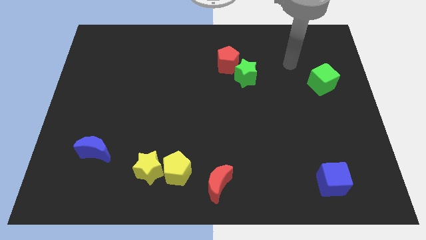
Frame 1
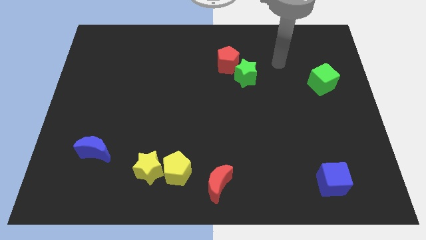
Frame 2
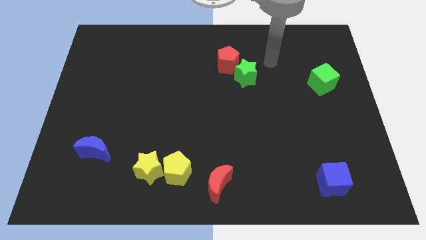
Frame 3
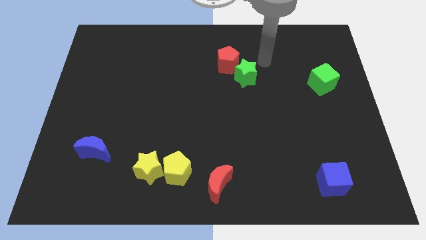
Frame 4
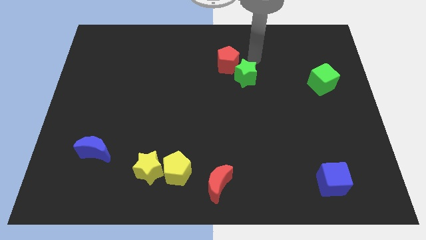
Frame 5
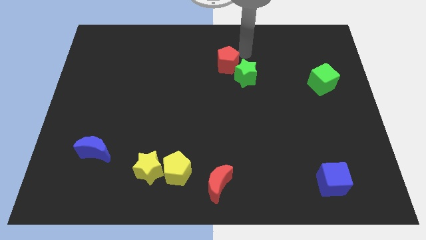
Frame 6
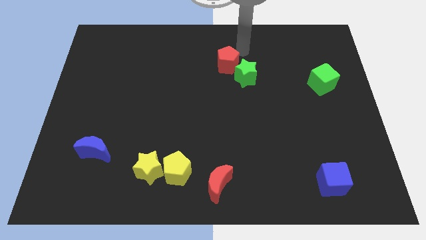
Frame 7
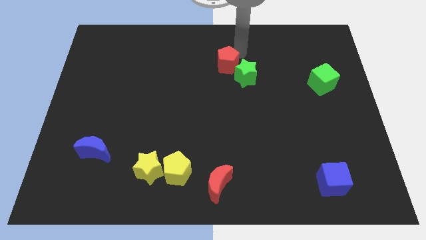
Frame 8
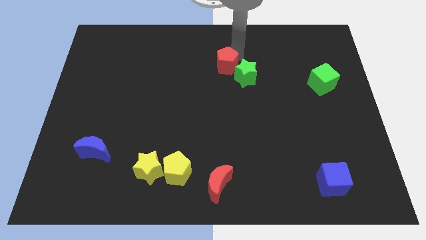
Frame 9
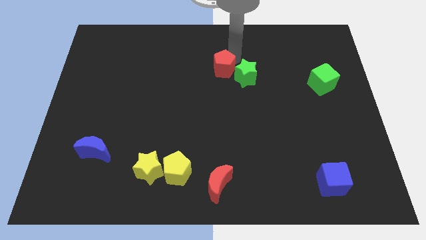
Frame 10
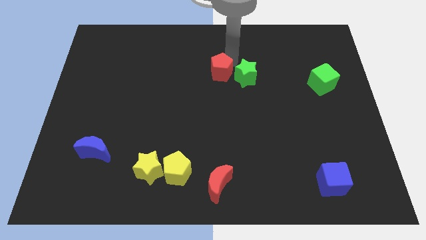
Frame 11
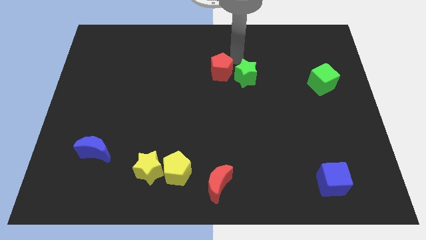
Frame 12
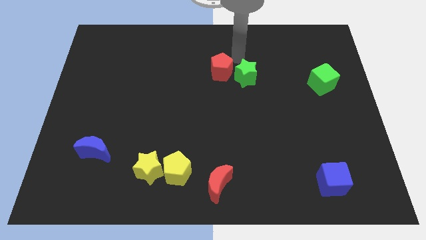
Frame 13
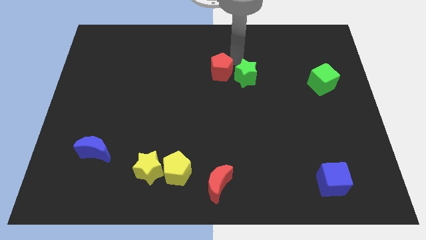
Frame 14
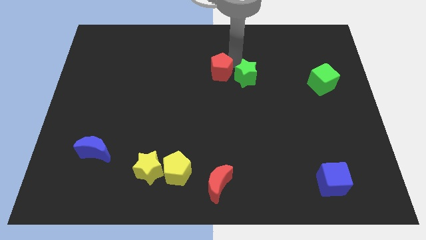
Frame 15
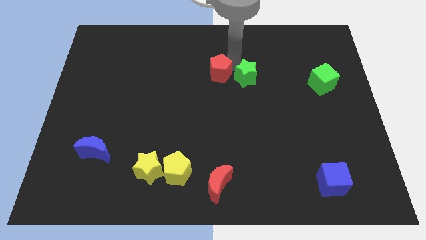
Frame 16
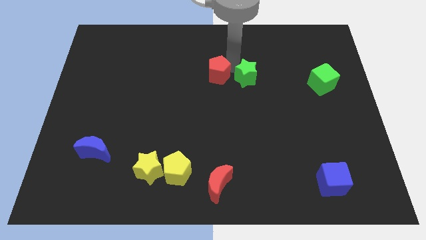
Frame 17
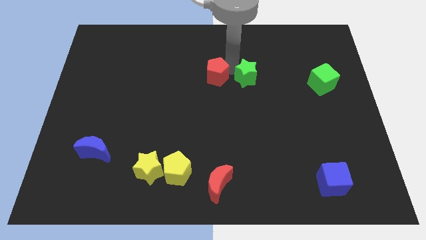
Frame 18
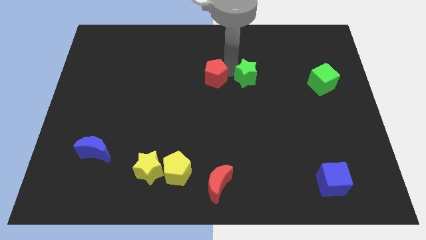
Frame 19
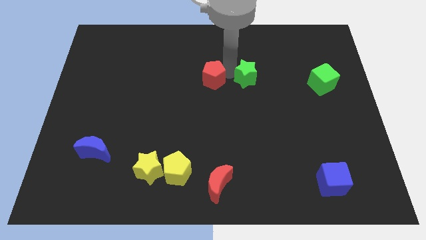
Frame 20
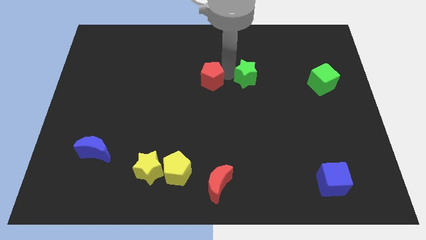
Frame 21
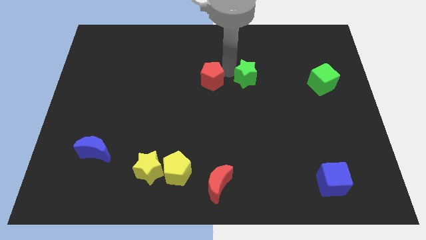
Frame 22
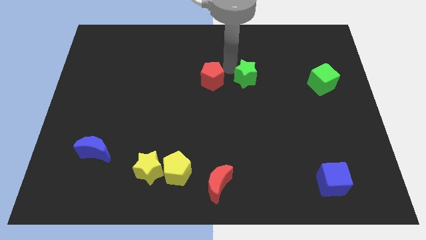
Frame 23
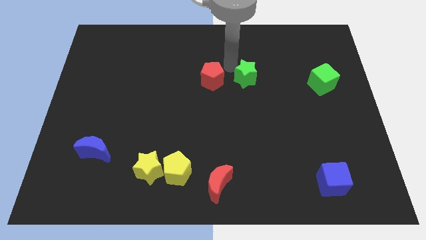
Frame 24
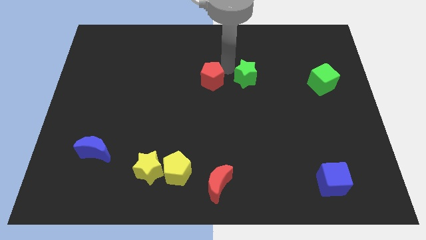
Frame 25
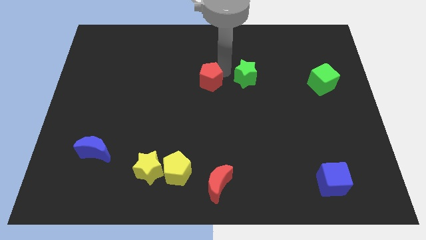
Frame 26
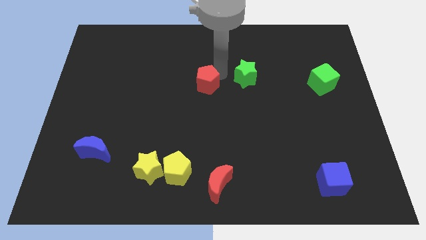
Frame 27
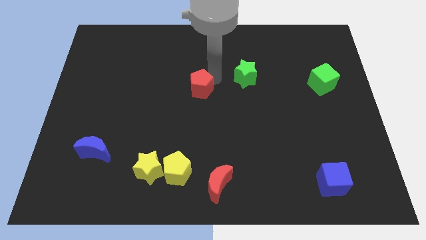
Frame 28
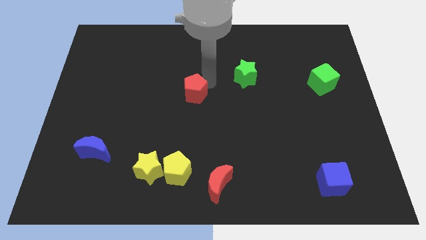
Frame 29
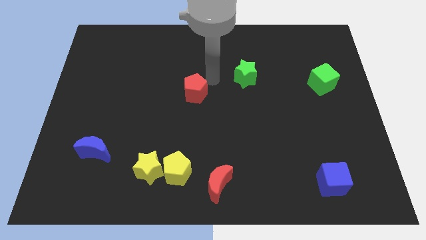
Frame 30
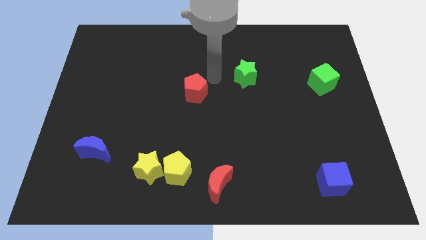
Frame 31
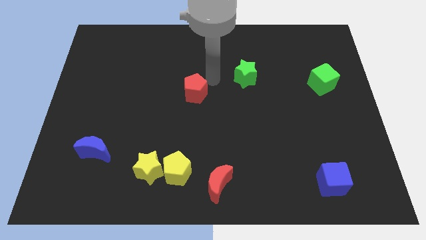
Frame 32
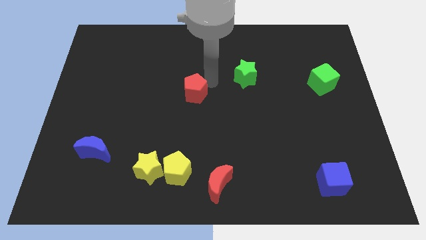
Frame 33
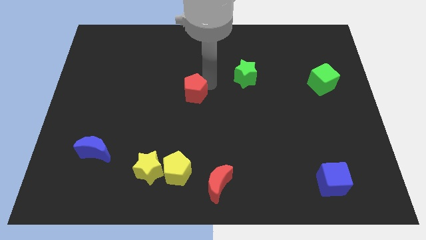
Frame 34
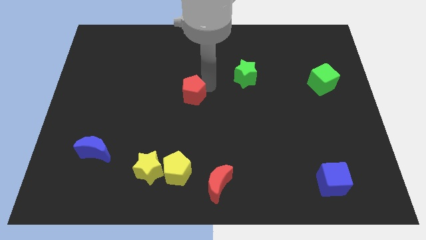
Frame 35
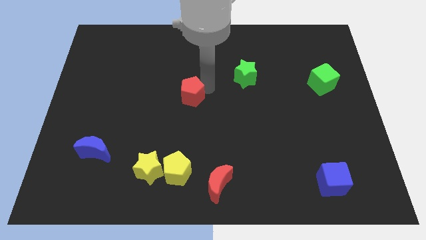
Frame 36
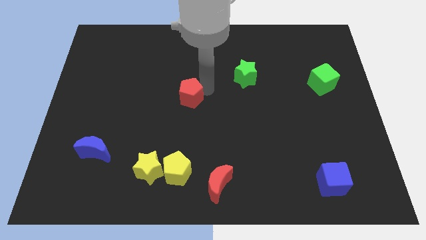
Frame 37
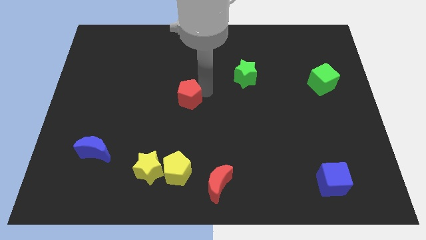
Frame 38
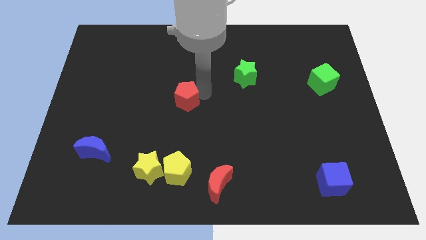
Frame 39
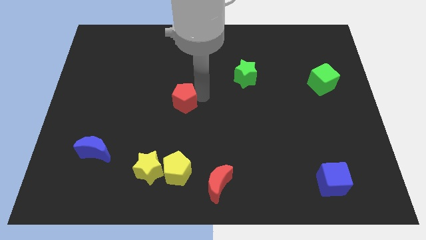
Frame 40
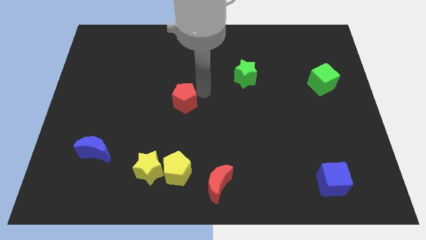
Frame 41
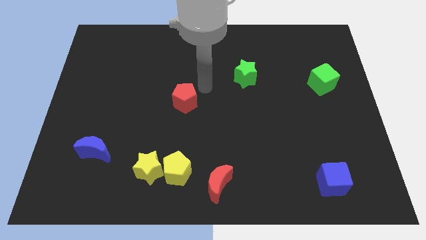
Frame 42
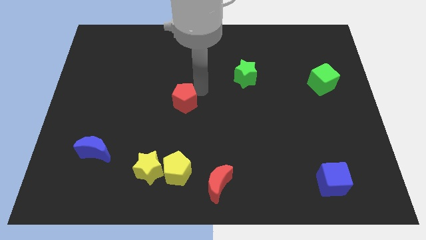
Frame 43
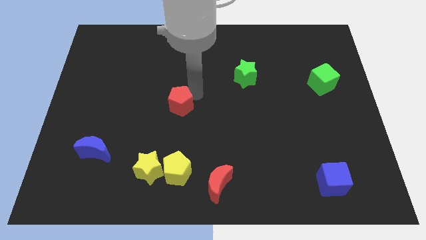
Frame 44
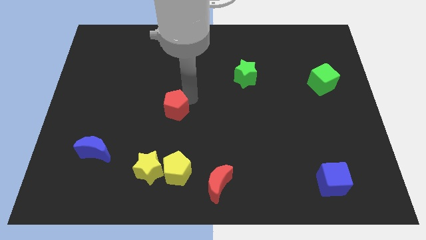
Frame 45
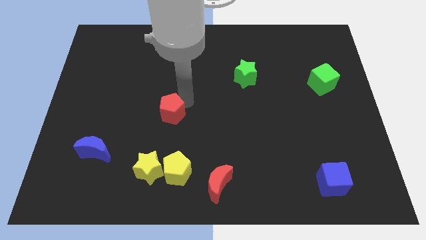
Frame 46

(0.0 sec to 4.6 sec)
push the red pentagon down and then to the left

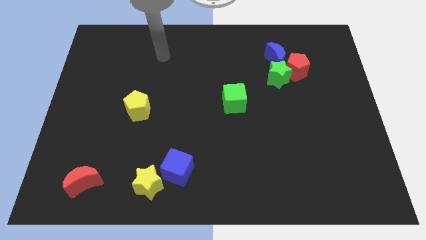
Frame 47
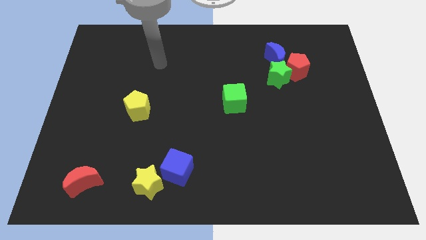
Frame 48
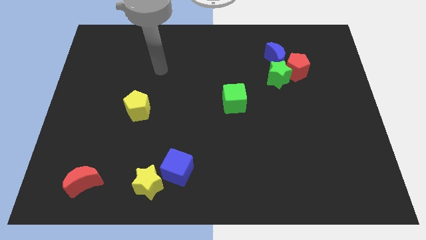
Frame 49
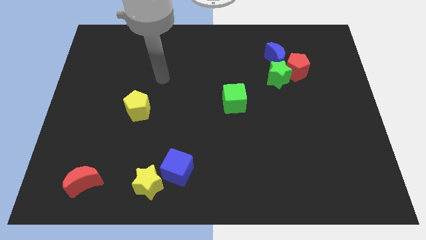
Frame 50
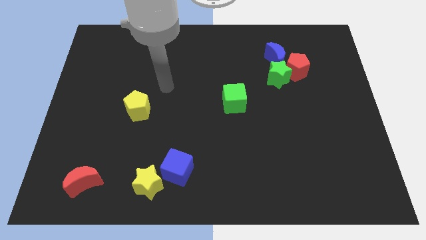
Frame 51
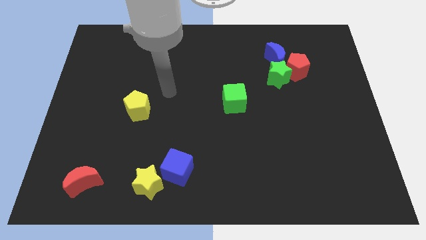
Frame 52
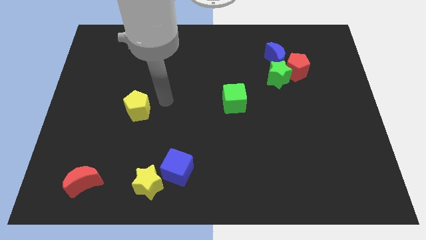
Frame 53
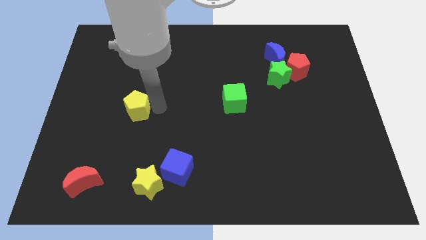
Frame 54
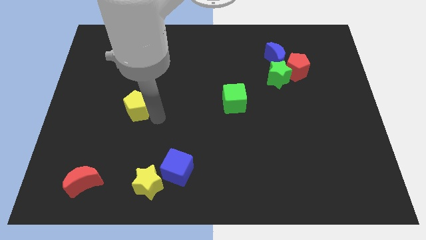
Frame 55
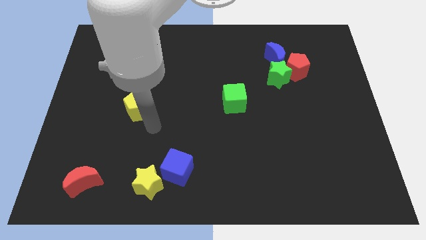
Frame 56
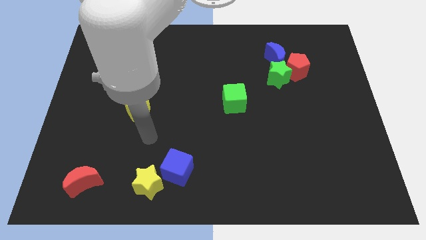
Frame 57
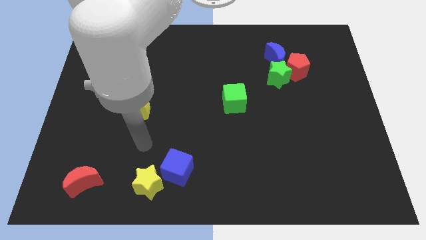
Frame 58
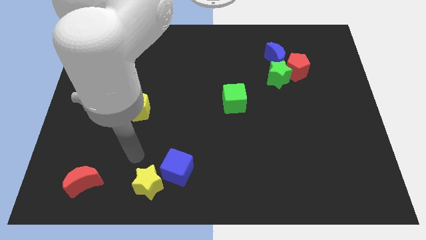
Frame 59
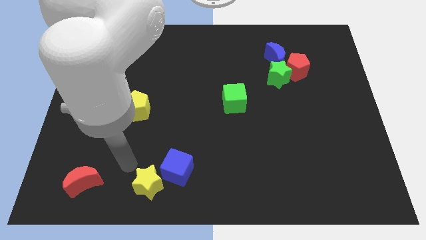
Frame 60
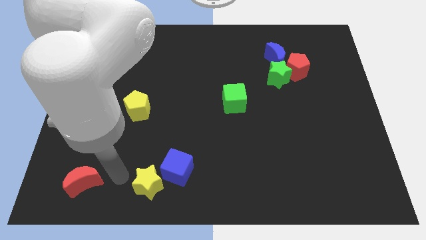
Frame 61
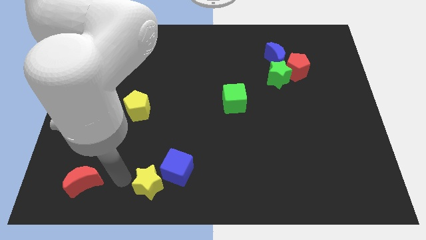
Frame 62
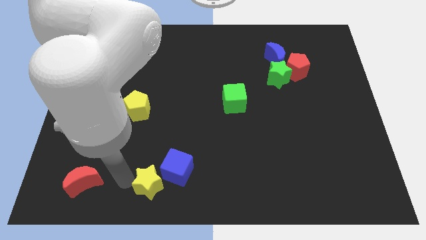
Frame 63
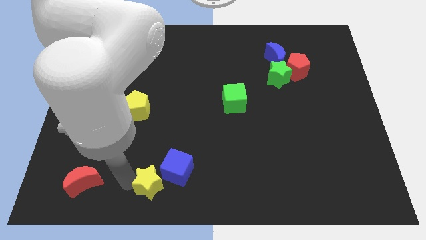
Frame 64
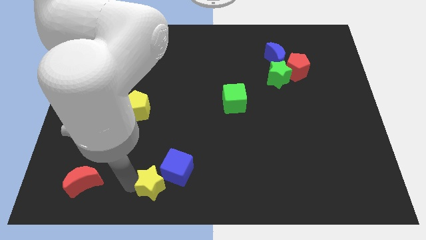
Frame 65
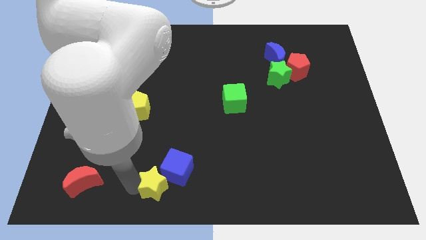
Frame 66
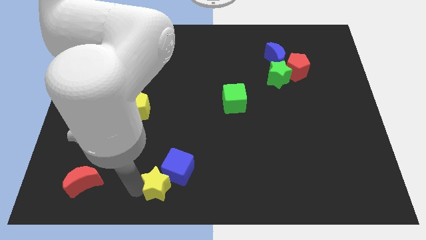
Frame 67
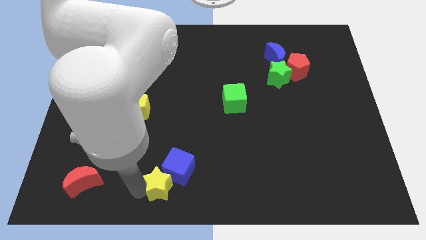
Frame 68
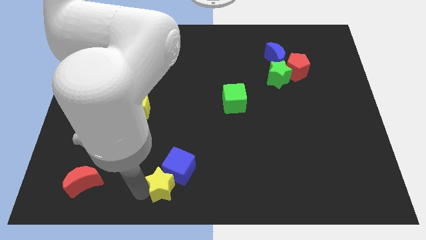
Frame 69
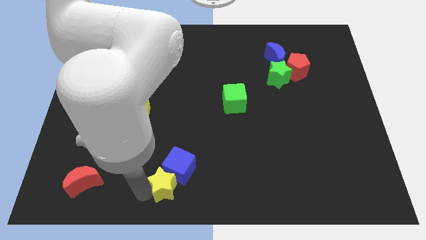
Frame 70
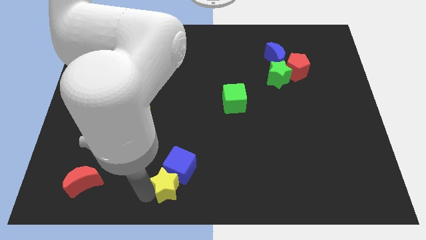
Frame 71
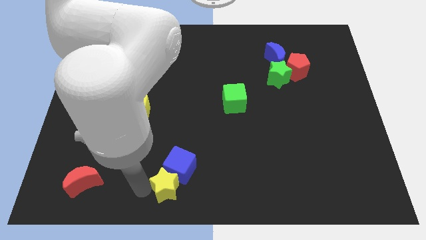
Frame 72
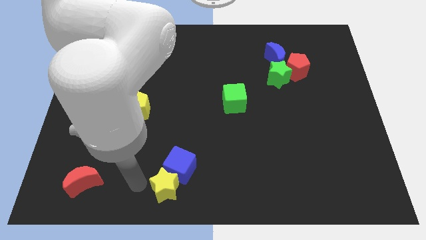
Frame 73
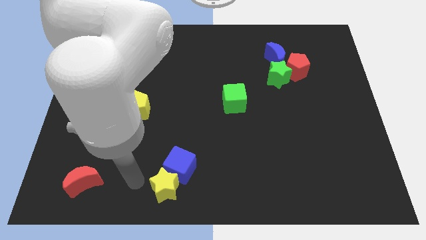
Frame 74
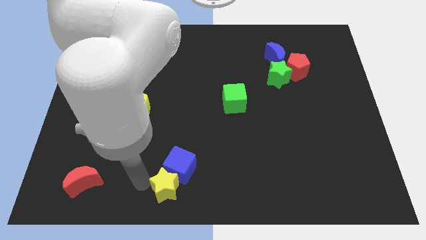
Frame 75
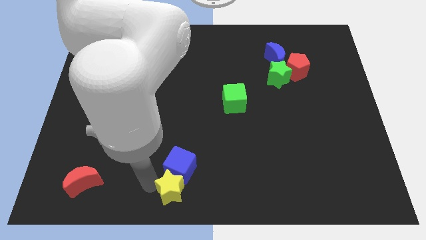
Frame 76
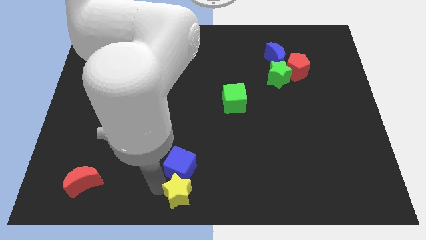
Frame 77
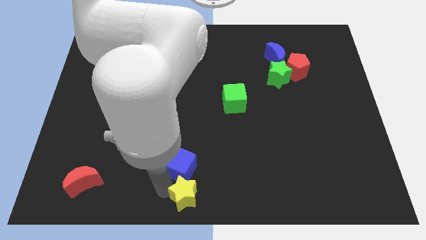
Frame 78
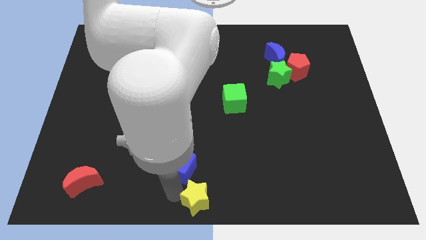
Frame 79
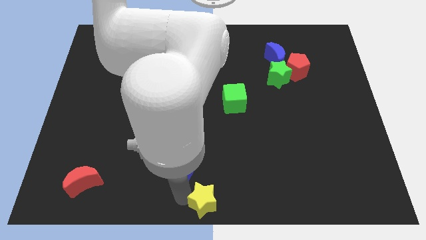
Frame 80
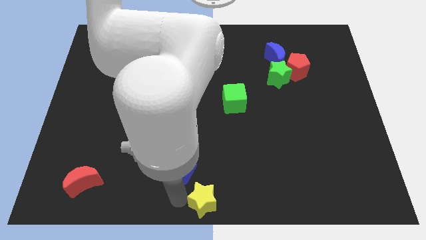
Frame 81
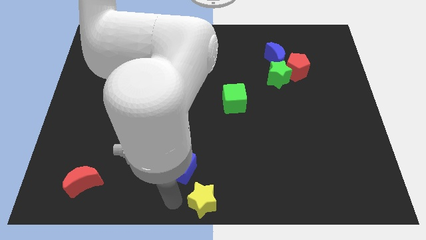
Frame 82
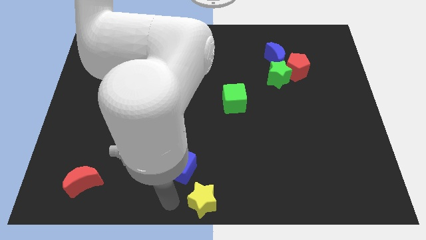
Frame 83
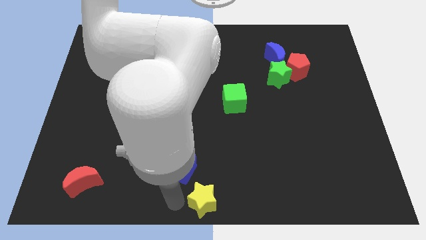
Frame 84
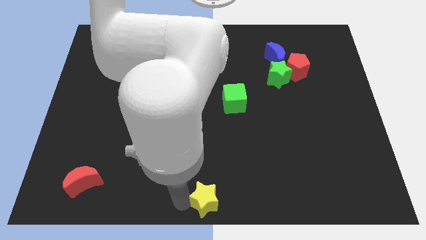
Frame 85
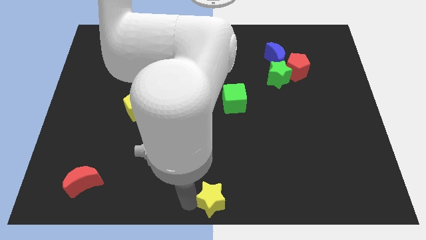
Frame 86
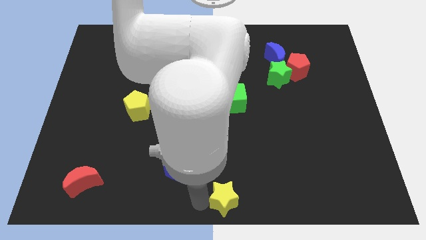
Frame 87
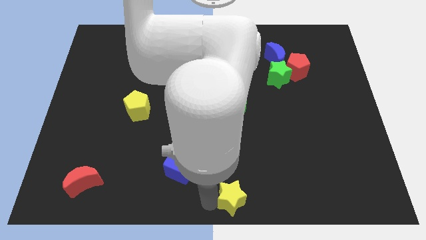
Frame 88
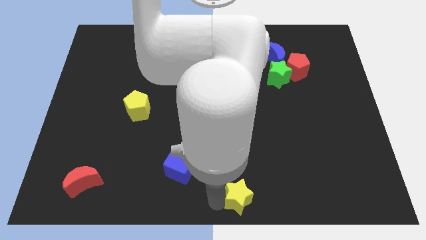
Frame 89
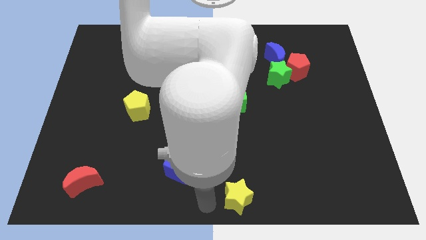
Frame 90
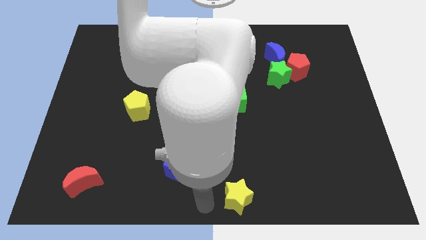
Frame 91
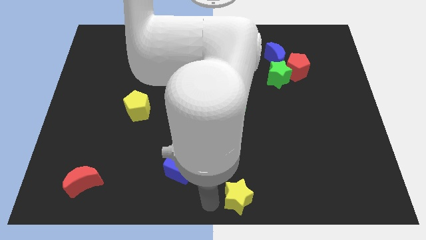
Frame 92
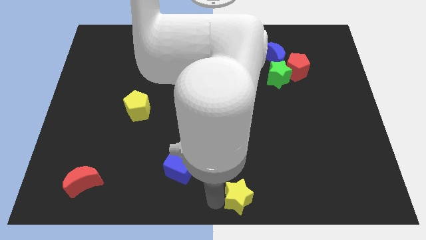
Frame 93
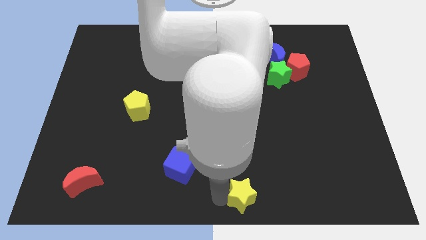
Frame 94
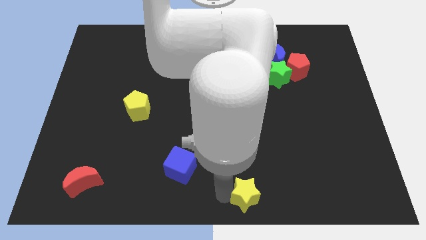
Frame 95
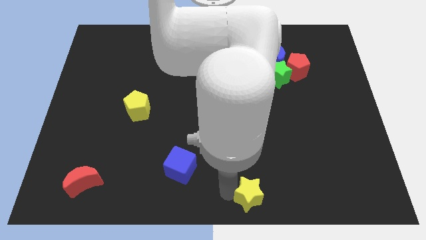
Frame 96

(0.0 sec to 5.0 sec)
move the yellow star to the right
